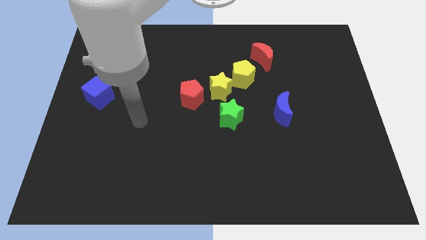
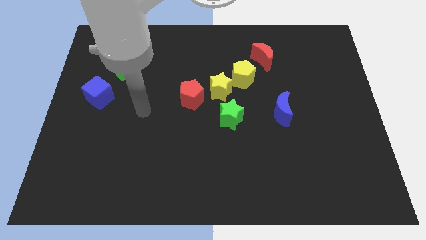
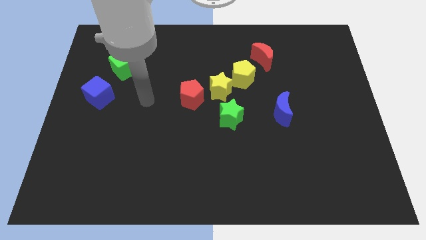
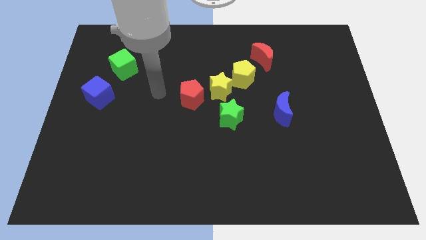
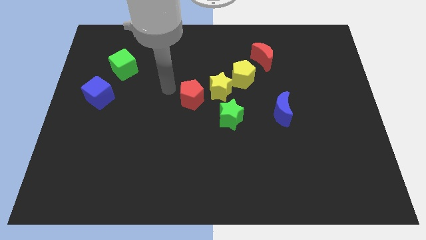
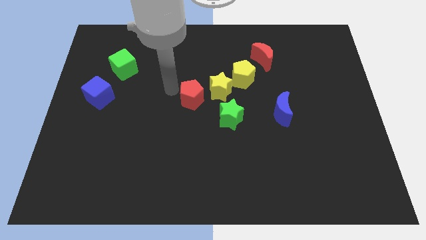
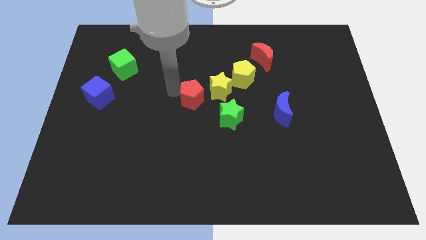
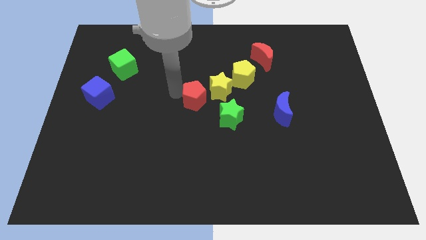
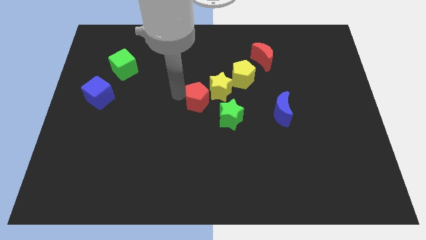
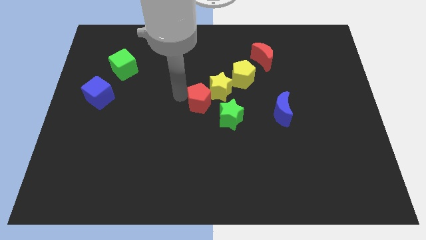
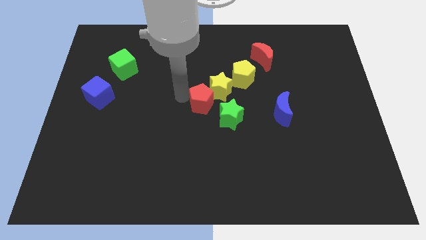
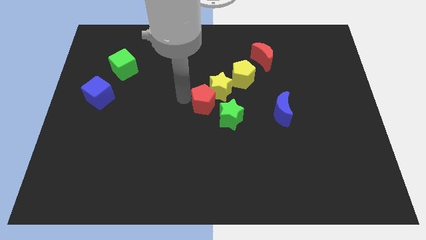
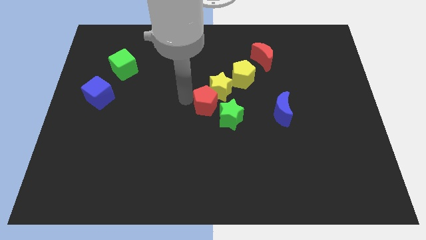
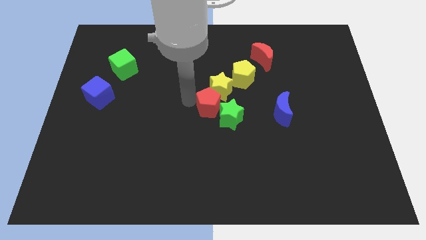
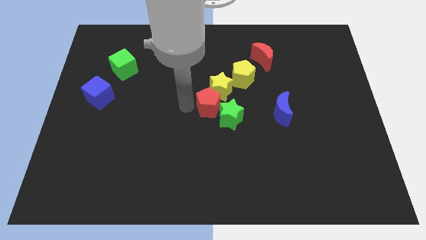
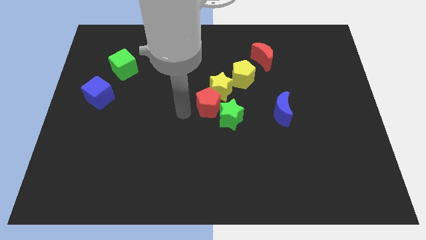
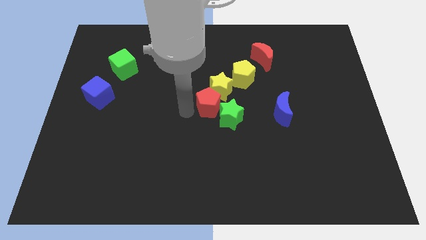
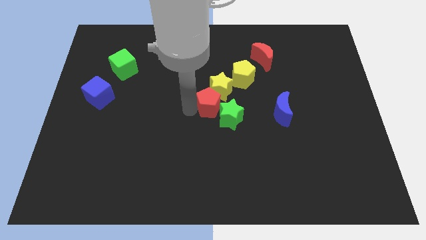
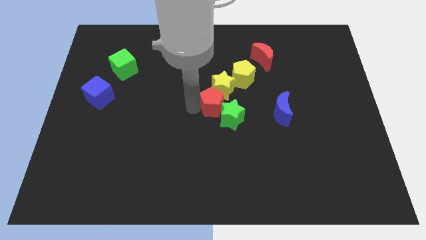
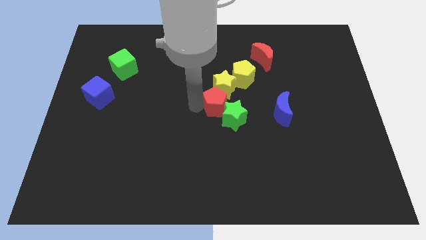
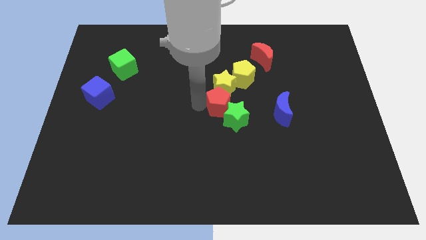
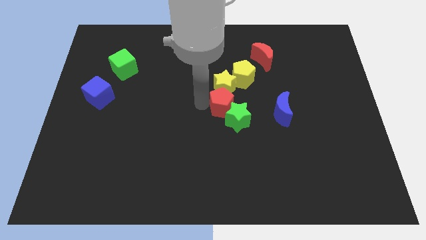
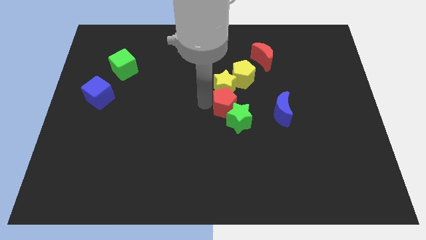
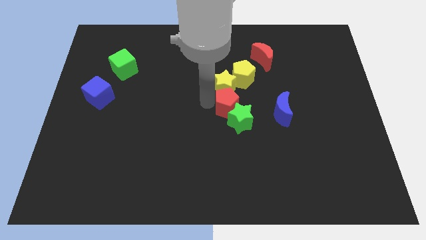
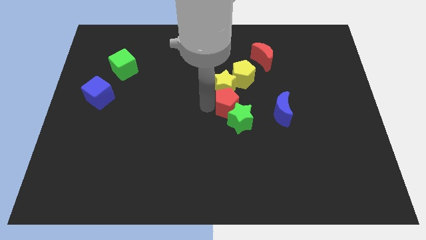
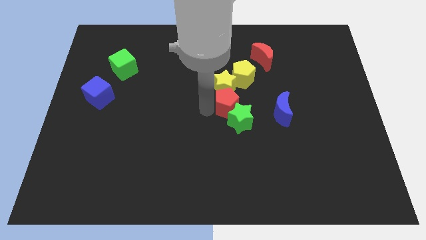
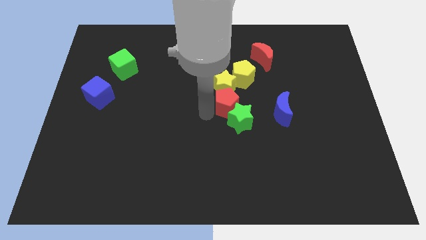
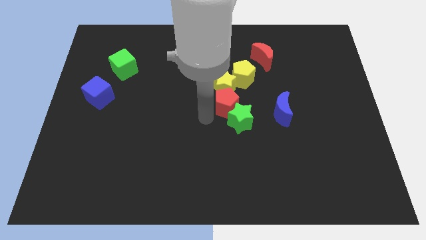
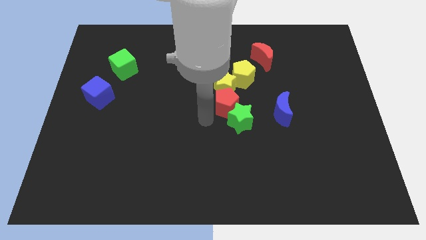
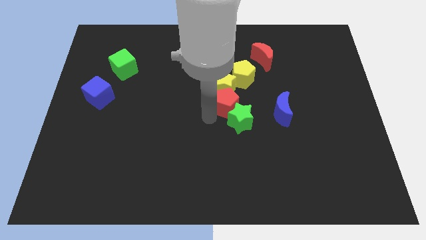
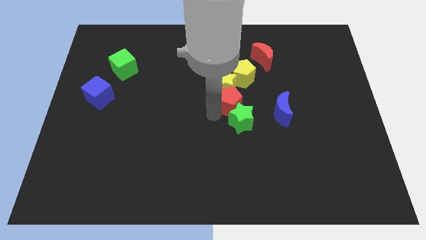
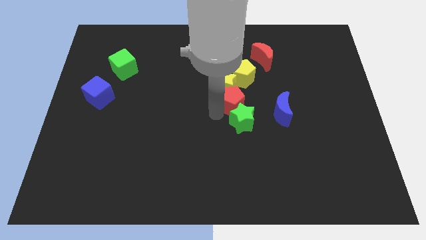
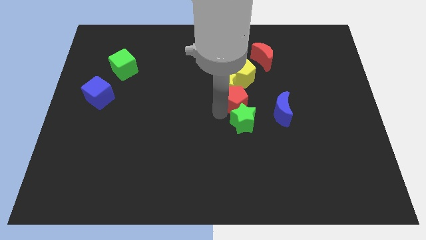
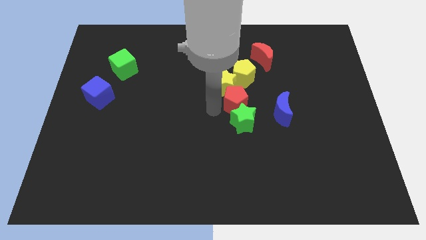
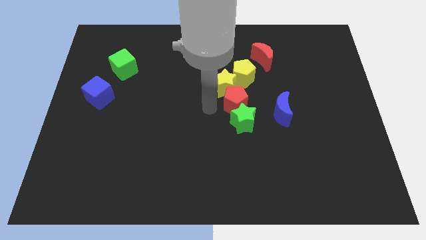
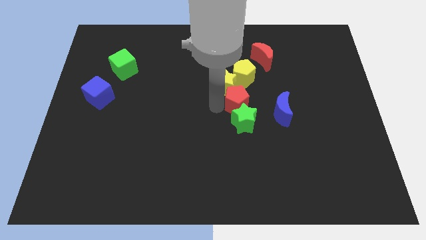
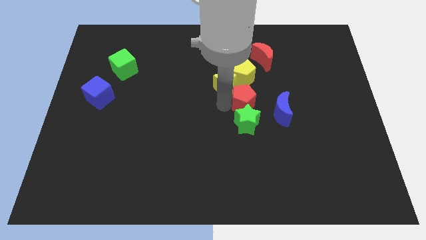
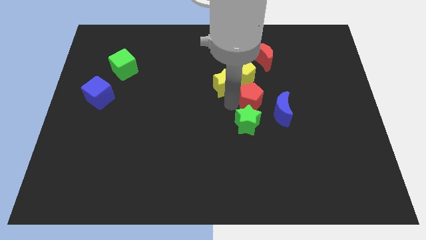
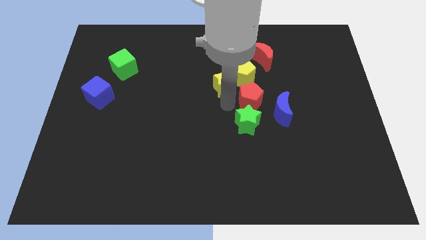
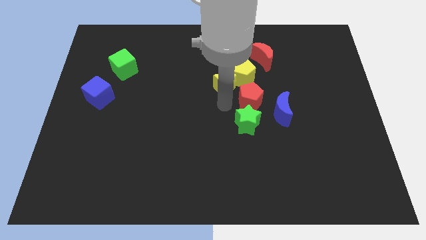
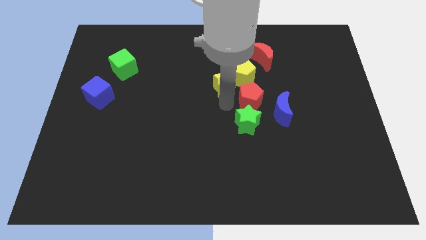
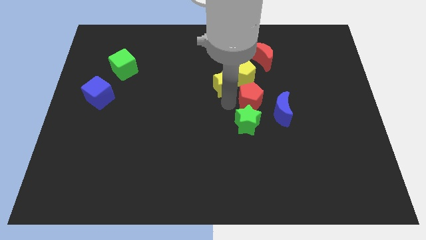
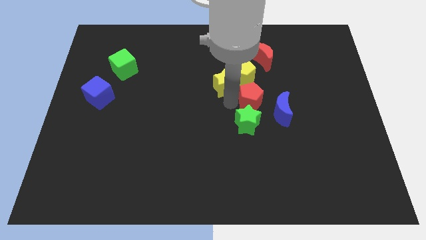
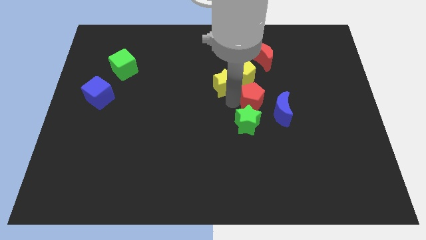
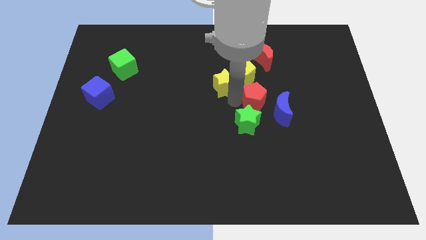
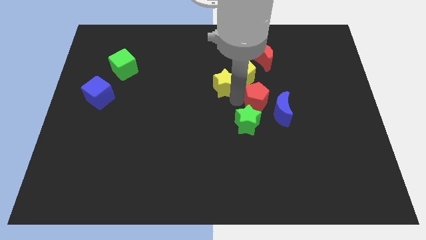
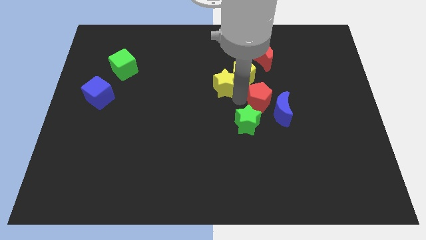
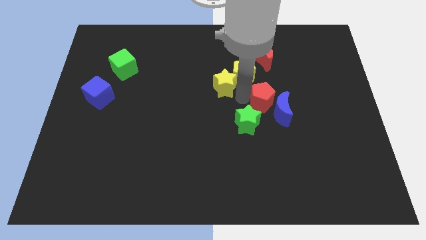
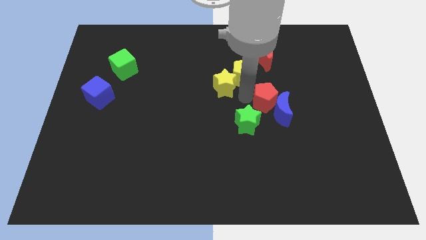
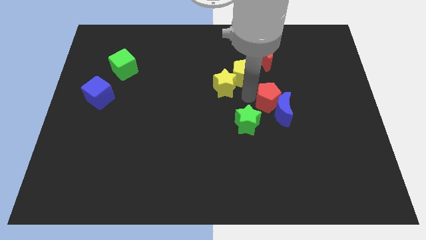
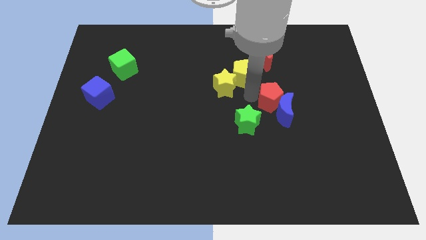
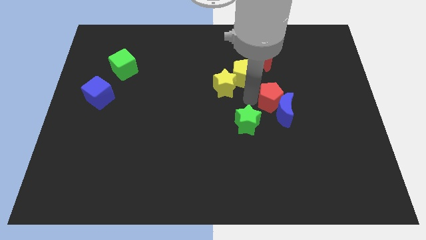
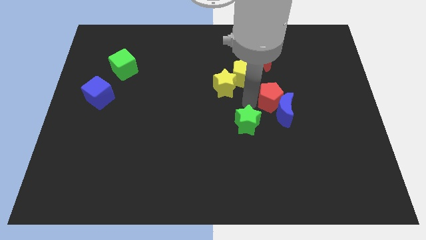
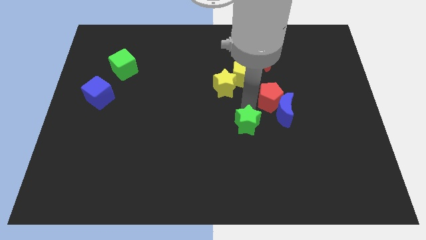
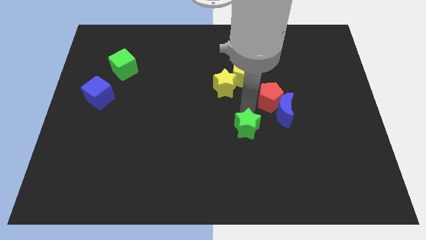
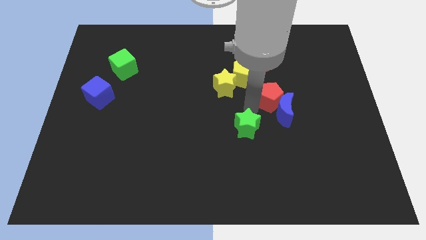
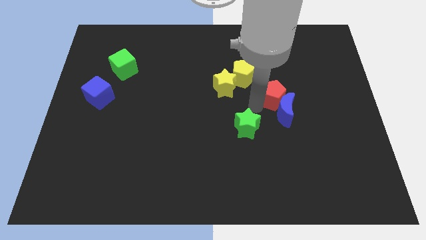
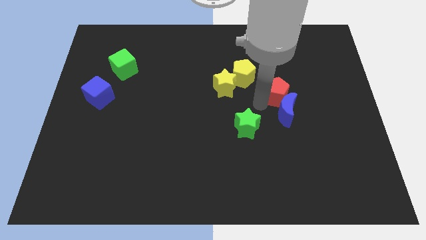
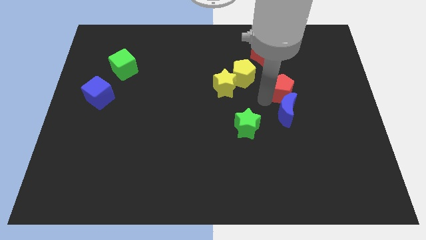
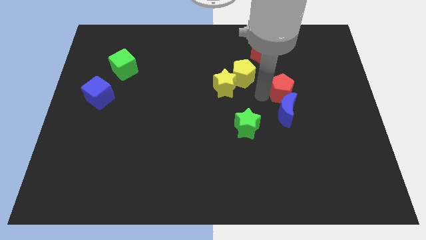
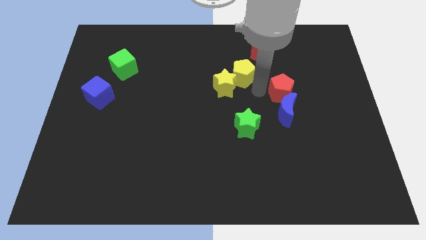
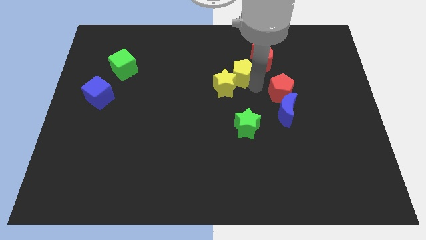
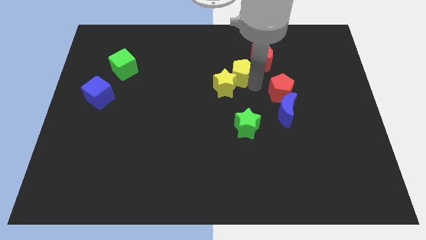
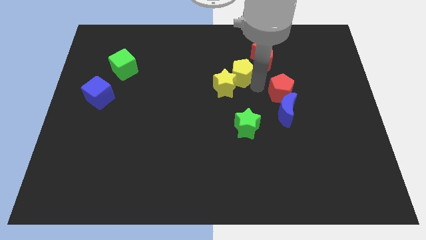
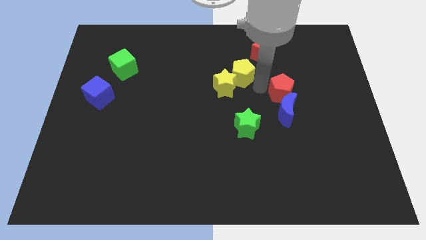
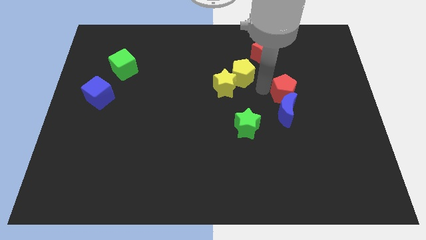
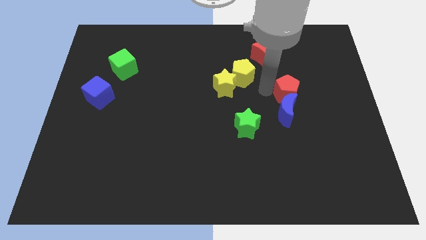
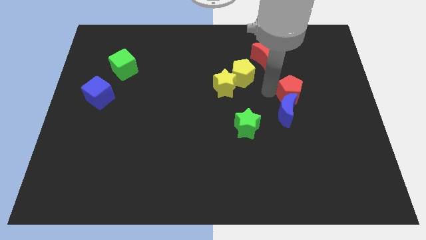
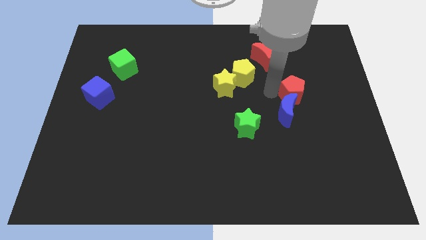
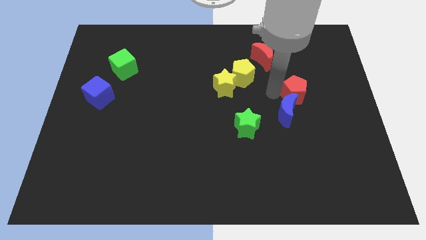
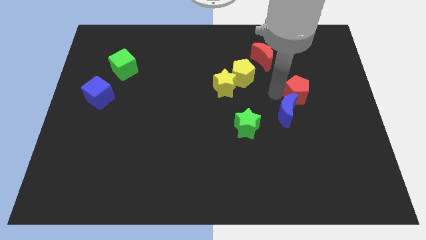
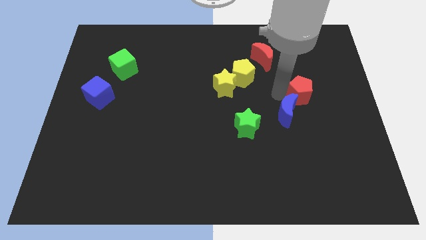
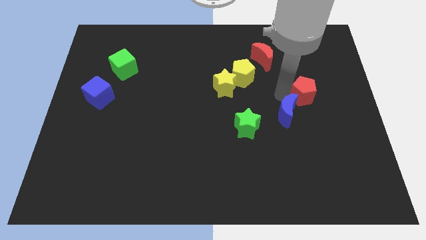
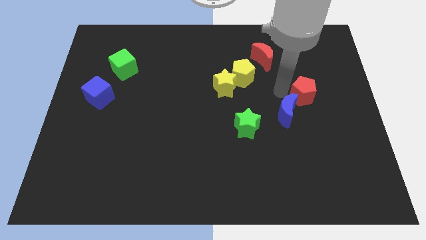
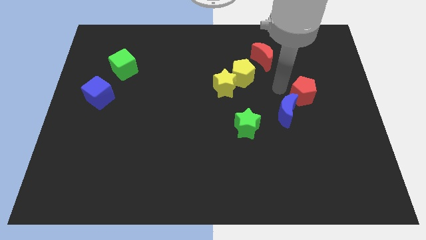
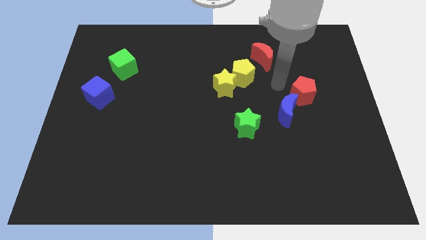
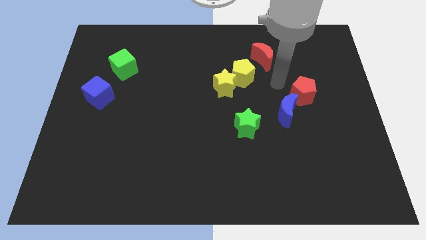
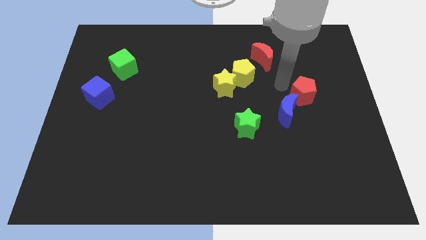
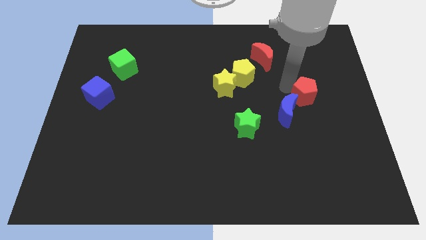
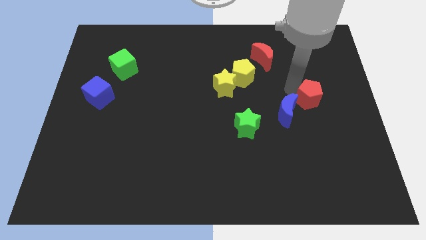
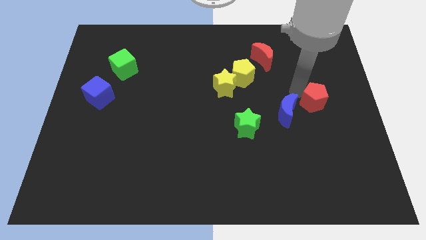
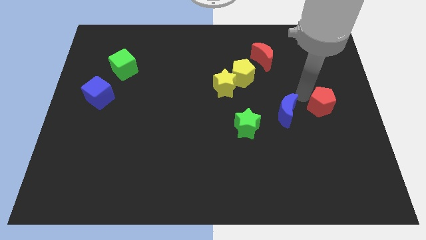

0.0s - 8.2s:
slide the red pentagon to the right side of the board

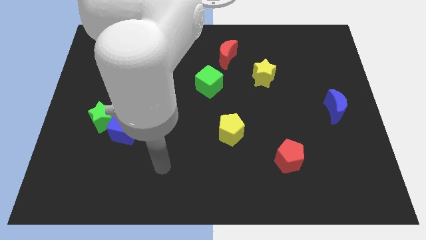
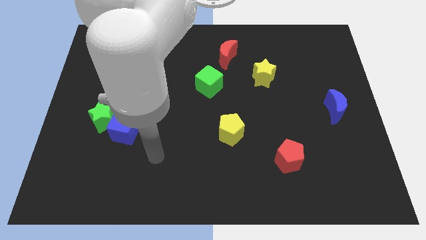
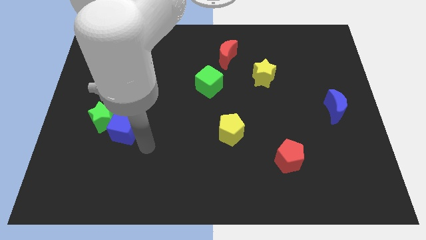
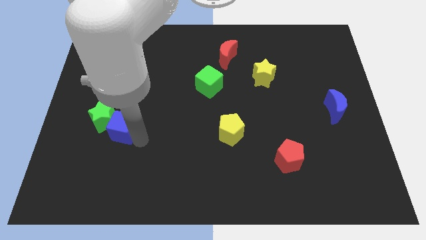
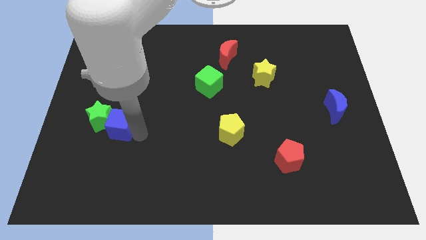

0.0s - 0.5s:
slide the green star to the center left
